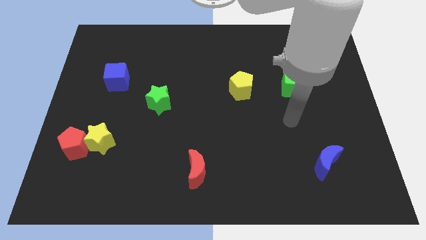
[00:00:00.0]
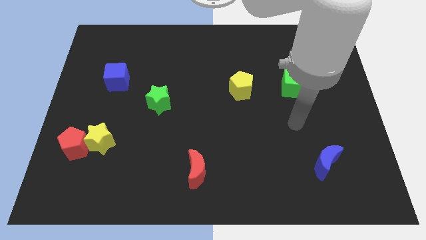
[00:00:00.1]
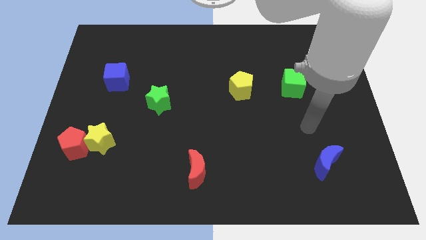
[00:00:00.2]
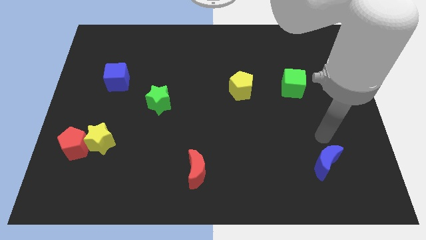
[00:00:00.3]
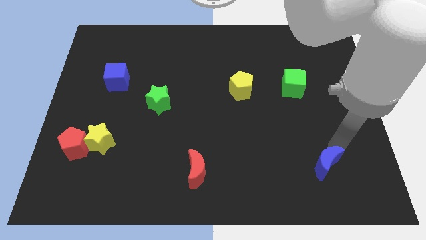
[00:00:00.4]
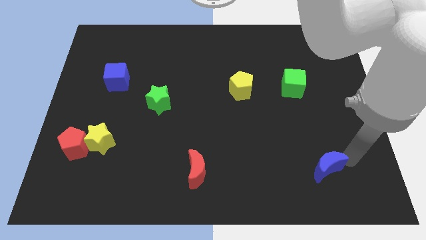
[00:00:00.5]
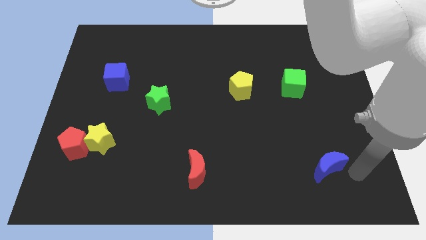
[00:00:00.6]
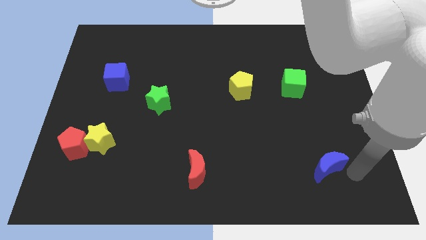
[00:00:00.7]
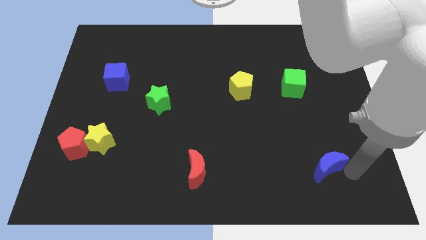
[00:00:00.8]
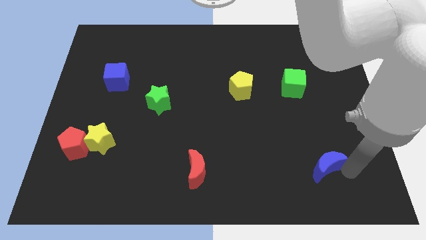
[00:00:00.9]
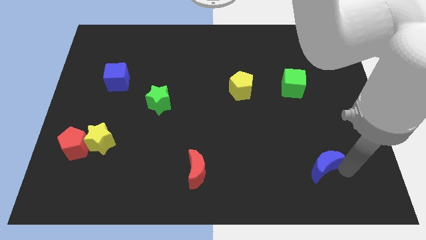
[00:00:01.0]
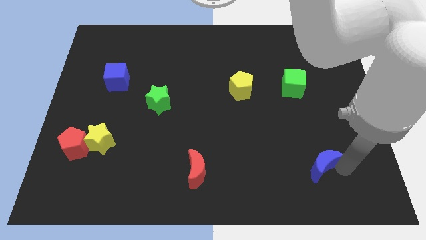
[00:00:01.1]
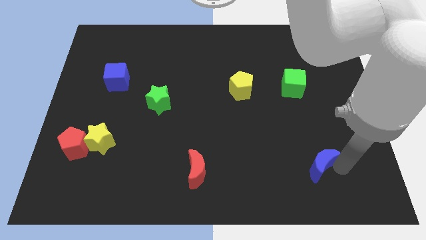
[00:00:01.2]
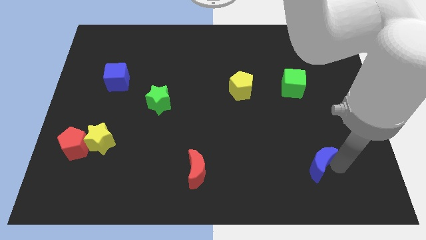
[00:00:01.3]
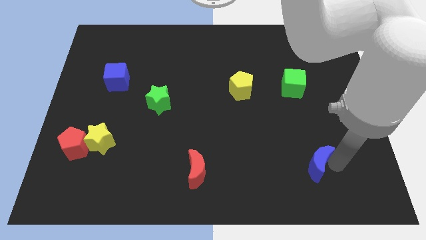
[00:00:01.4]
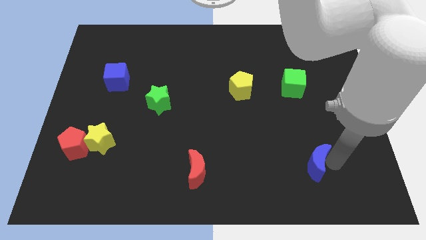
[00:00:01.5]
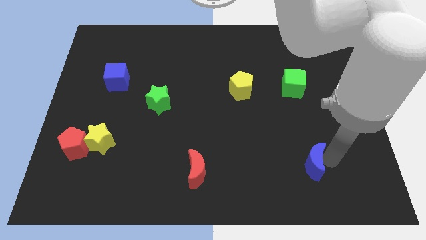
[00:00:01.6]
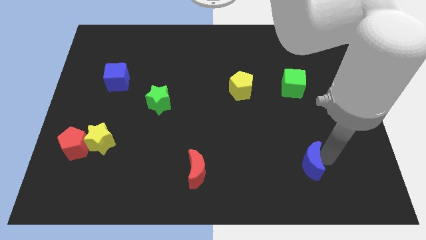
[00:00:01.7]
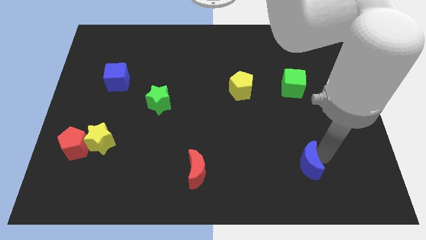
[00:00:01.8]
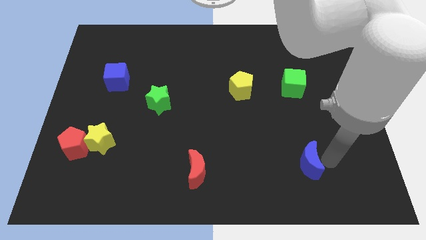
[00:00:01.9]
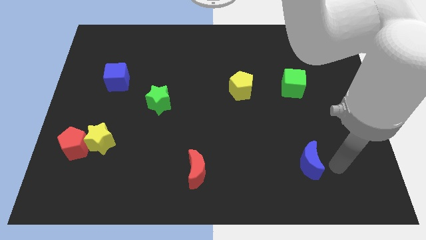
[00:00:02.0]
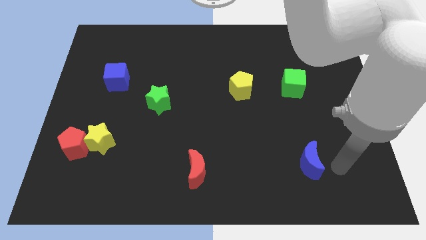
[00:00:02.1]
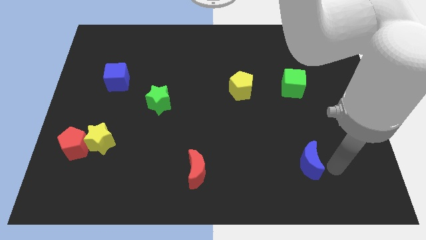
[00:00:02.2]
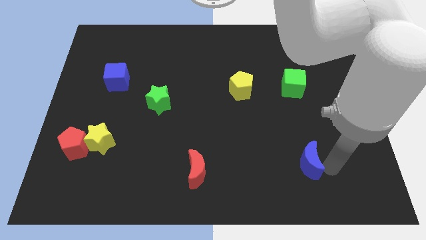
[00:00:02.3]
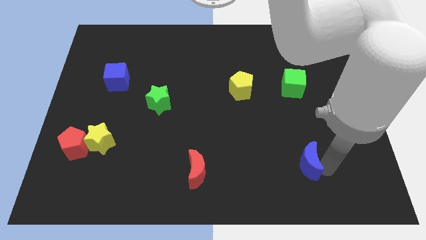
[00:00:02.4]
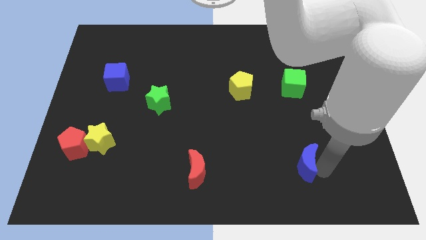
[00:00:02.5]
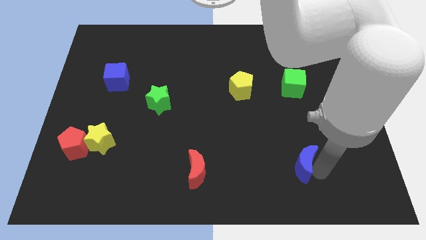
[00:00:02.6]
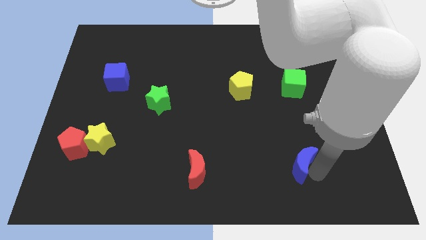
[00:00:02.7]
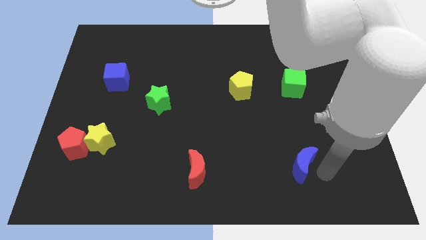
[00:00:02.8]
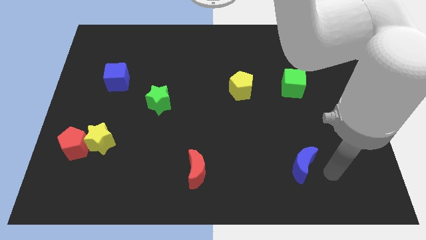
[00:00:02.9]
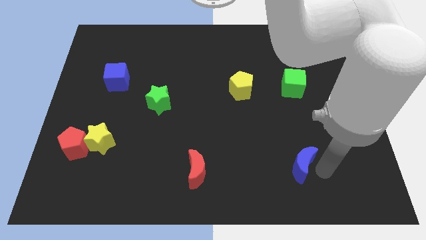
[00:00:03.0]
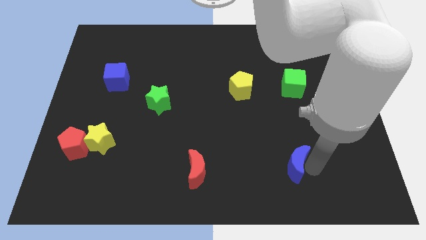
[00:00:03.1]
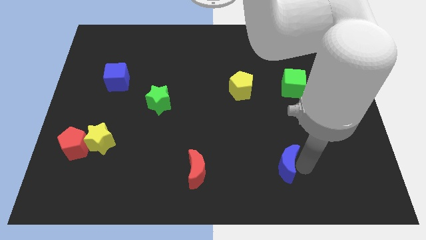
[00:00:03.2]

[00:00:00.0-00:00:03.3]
slide the blue moon left a little bit

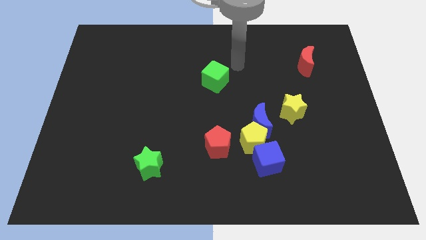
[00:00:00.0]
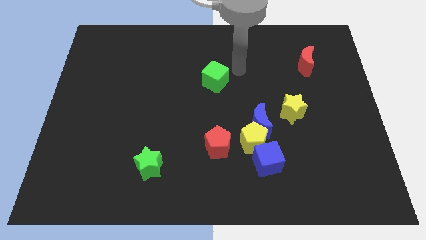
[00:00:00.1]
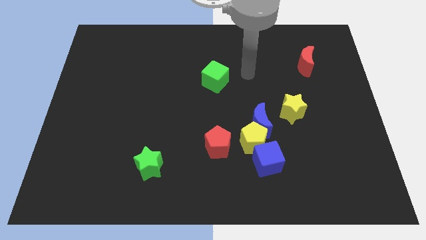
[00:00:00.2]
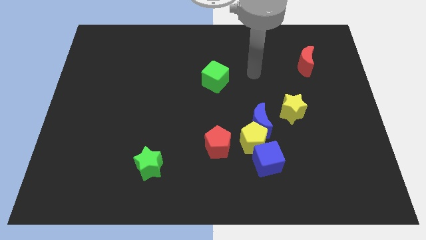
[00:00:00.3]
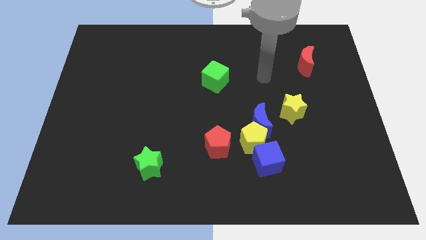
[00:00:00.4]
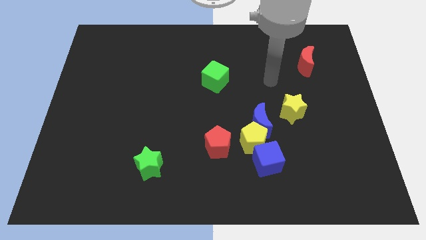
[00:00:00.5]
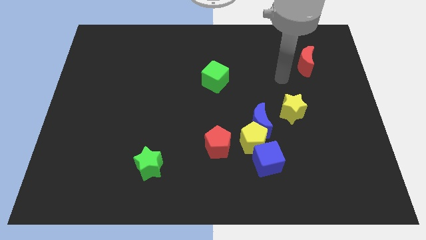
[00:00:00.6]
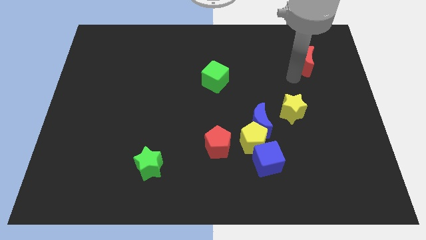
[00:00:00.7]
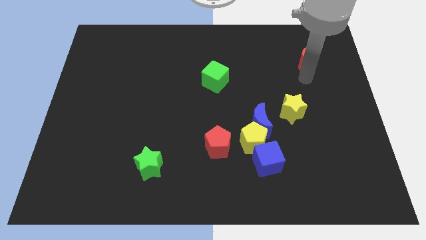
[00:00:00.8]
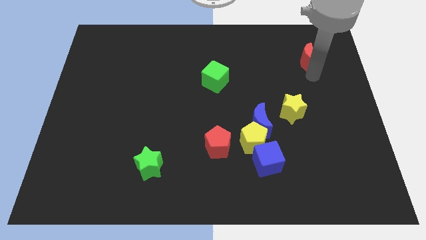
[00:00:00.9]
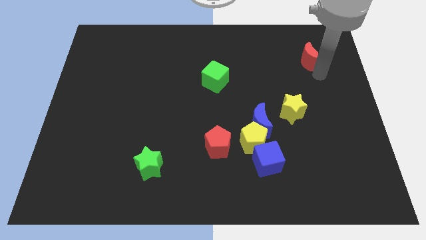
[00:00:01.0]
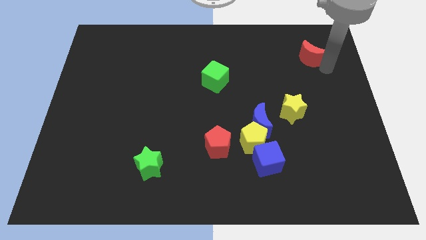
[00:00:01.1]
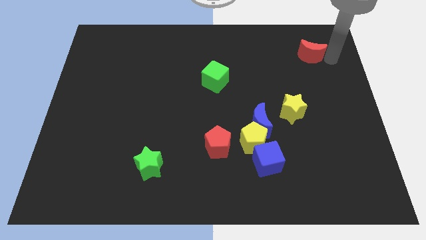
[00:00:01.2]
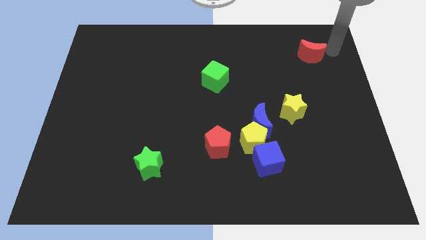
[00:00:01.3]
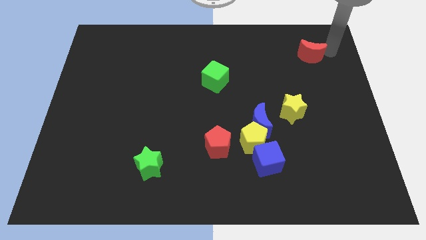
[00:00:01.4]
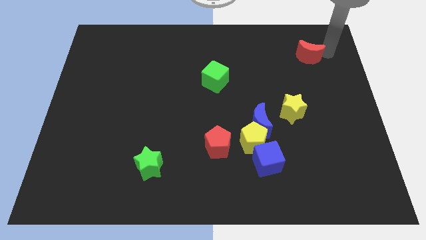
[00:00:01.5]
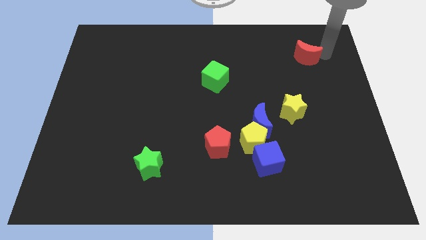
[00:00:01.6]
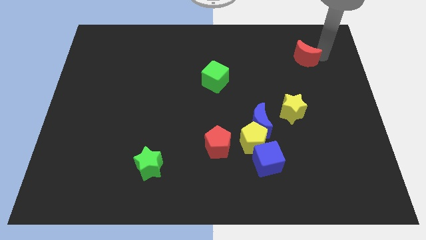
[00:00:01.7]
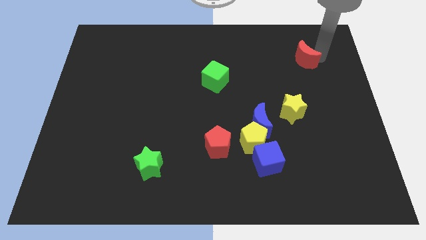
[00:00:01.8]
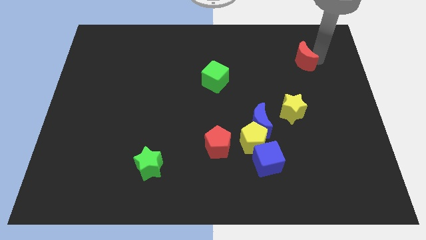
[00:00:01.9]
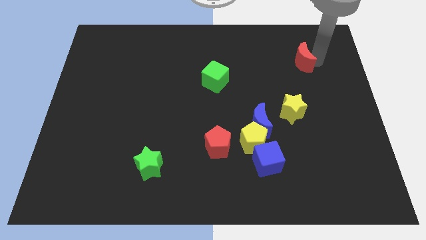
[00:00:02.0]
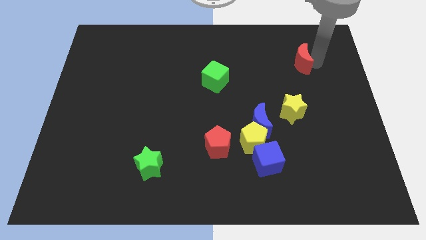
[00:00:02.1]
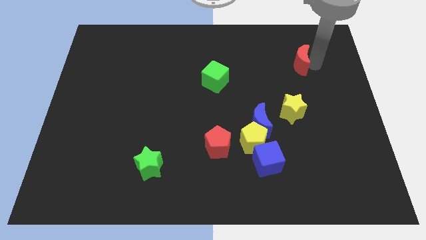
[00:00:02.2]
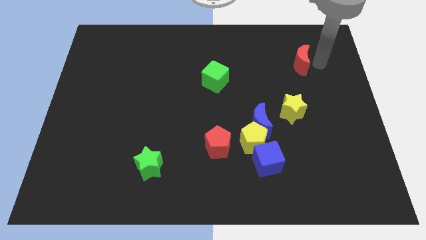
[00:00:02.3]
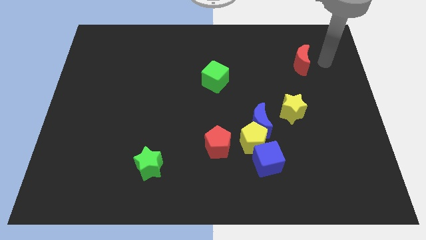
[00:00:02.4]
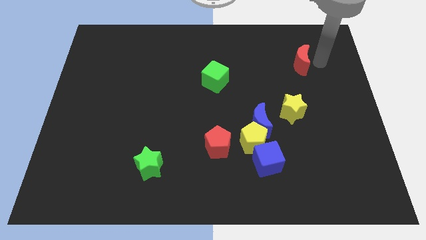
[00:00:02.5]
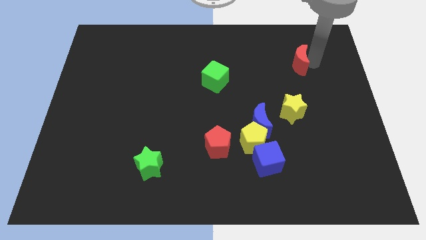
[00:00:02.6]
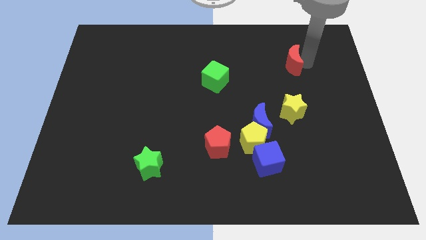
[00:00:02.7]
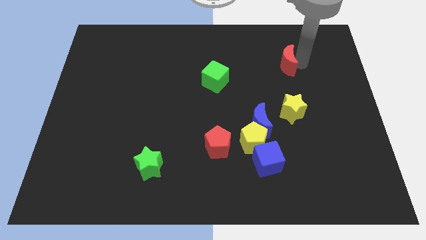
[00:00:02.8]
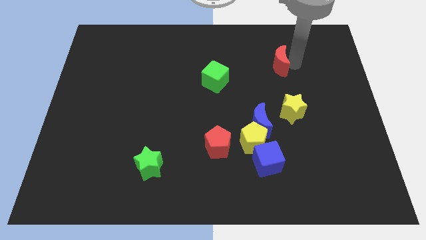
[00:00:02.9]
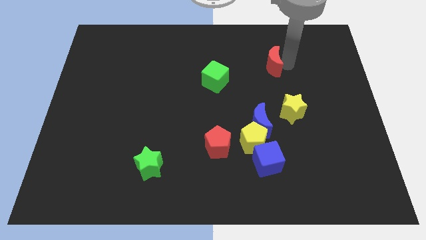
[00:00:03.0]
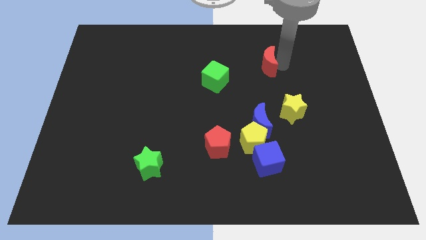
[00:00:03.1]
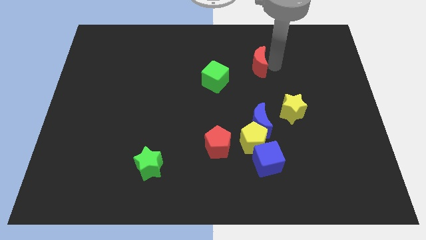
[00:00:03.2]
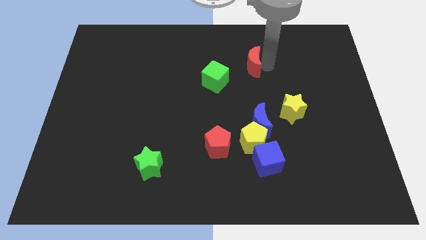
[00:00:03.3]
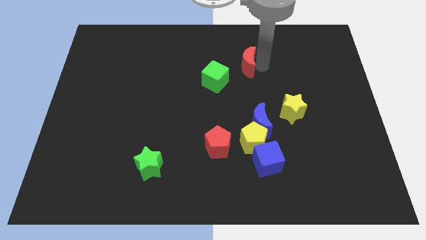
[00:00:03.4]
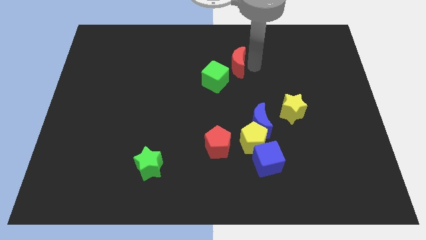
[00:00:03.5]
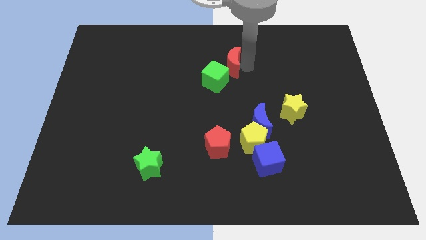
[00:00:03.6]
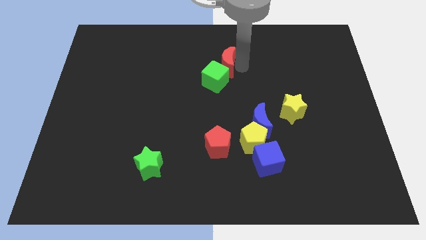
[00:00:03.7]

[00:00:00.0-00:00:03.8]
move the red moon left

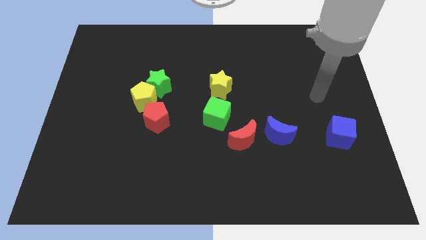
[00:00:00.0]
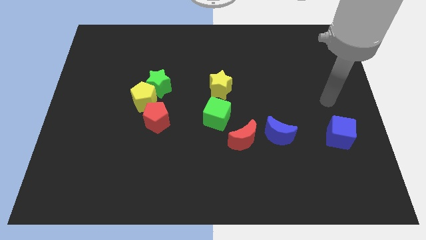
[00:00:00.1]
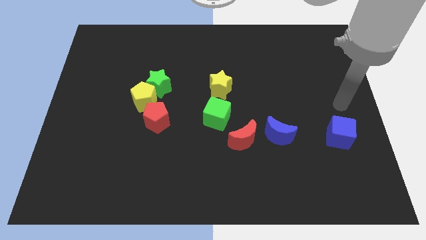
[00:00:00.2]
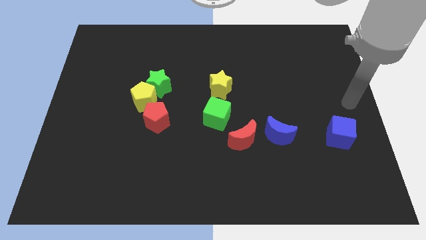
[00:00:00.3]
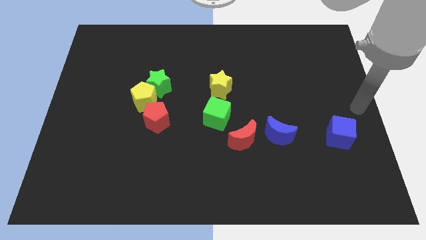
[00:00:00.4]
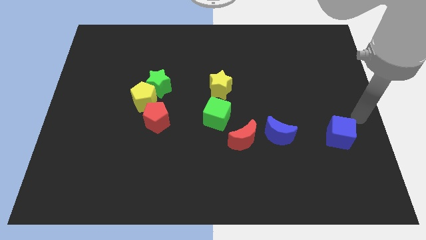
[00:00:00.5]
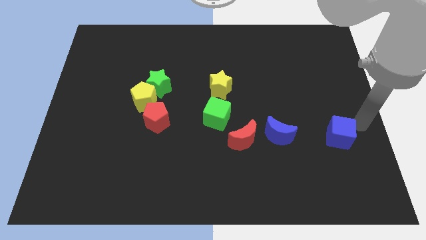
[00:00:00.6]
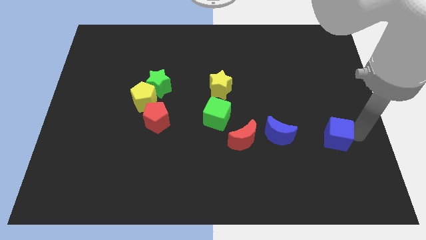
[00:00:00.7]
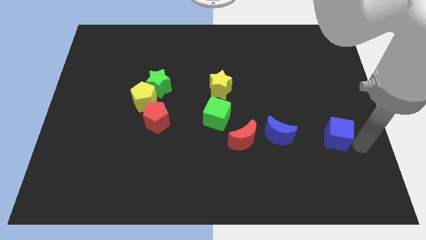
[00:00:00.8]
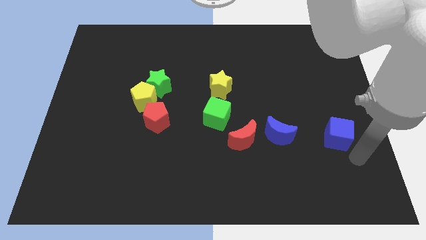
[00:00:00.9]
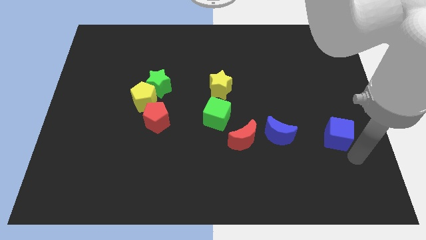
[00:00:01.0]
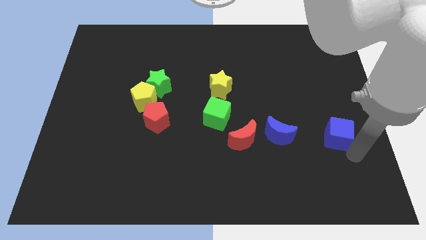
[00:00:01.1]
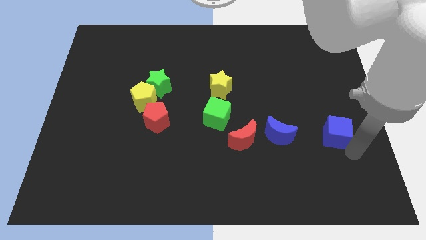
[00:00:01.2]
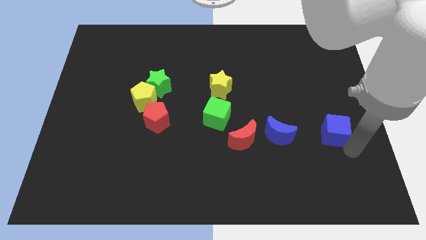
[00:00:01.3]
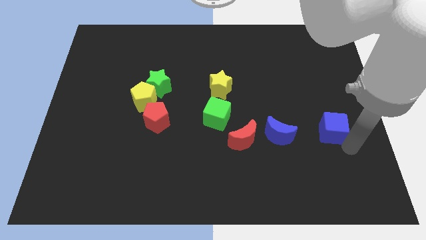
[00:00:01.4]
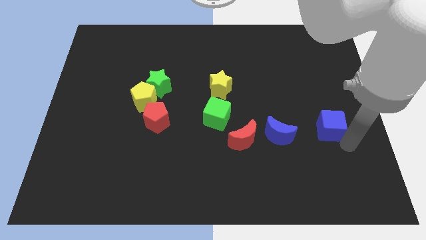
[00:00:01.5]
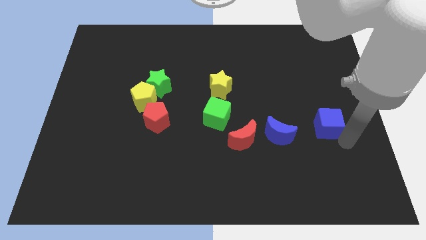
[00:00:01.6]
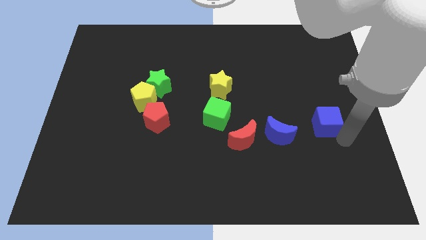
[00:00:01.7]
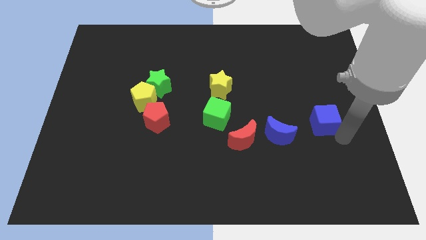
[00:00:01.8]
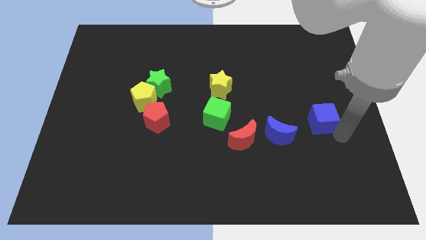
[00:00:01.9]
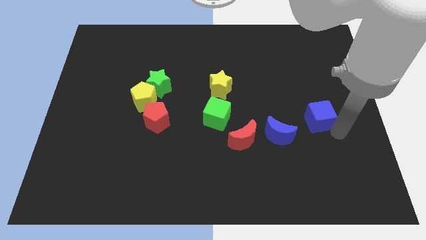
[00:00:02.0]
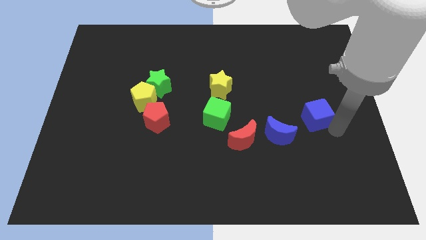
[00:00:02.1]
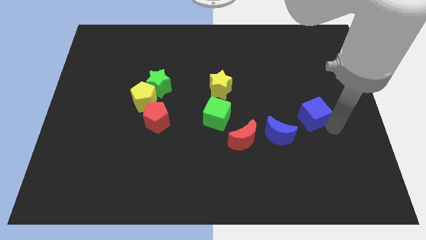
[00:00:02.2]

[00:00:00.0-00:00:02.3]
move the blue cube a little upwards and to the left diagonally
